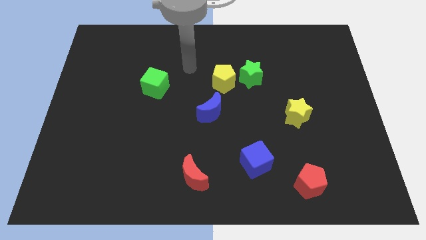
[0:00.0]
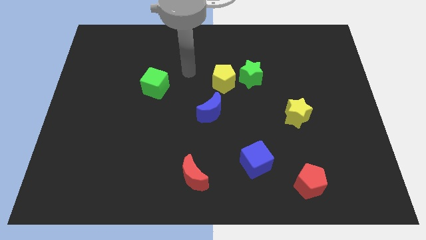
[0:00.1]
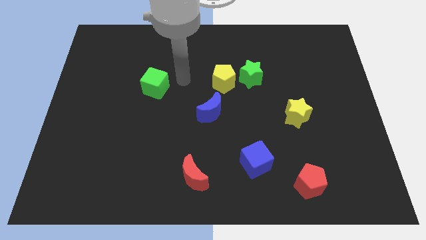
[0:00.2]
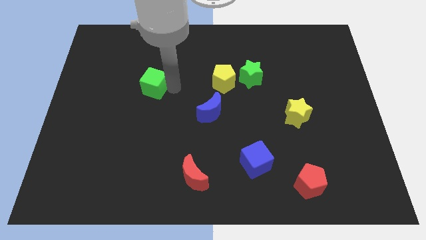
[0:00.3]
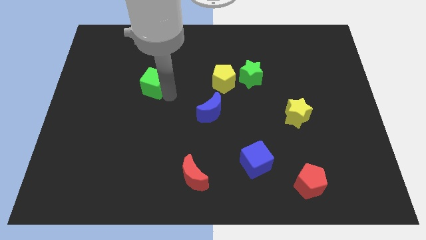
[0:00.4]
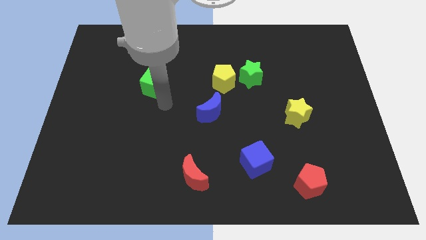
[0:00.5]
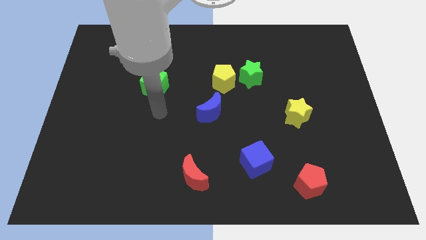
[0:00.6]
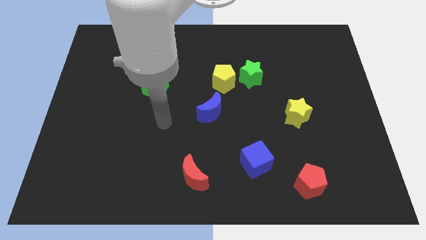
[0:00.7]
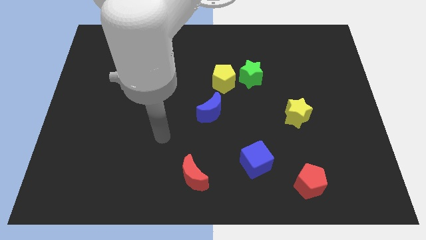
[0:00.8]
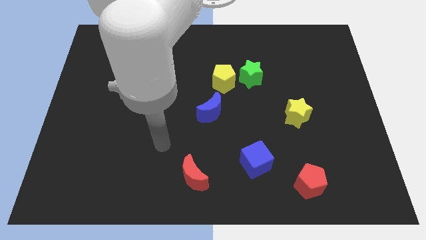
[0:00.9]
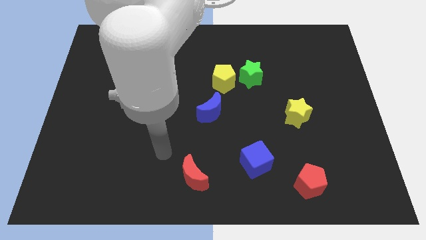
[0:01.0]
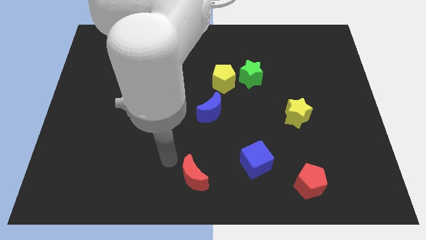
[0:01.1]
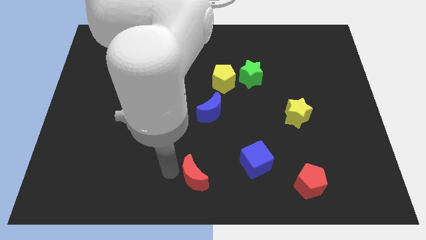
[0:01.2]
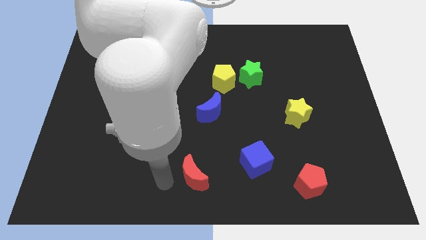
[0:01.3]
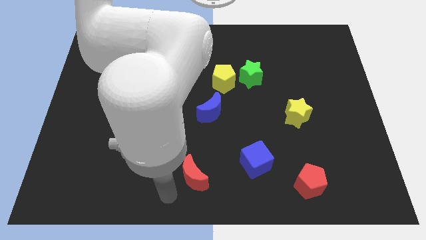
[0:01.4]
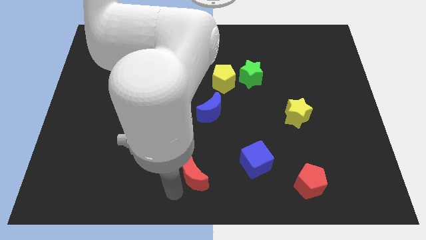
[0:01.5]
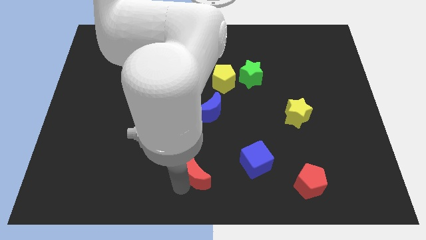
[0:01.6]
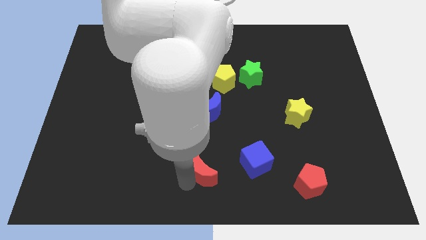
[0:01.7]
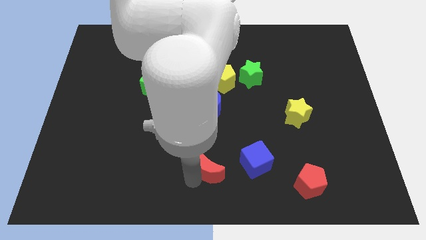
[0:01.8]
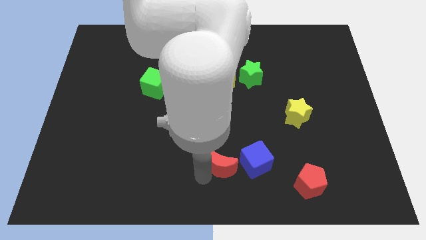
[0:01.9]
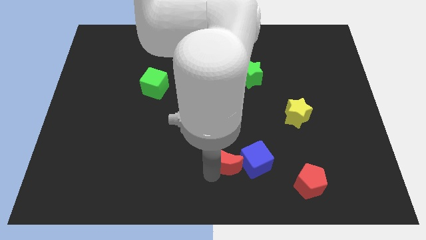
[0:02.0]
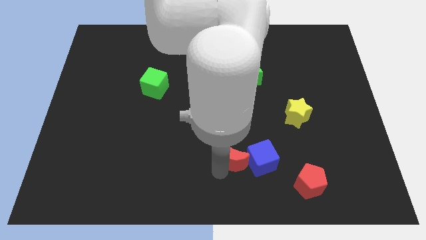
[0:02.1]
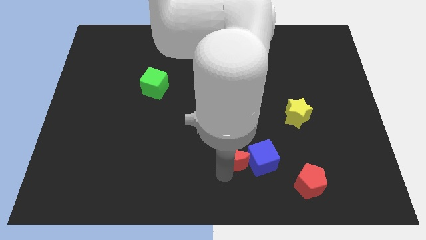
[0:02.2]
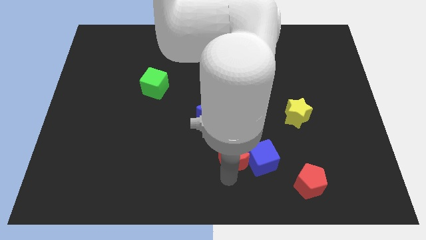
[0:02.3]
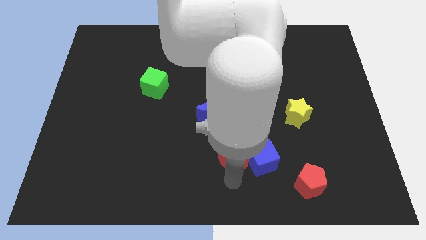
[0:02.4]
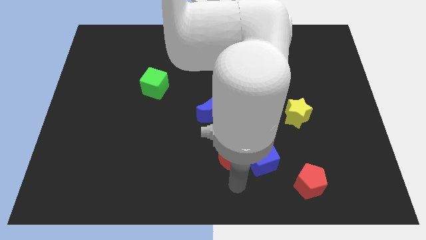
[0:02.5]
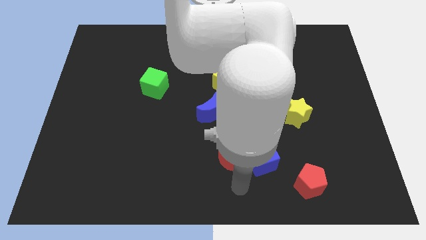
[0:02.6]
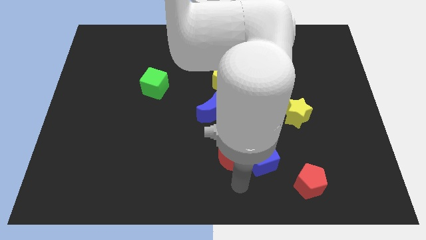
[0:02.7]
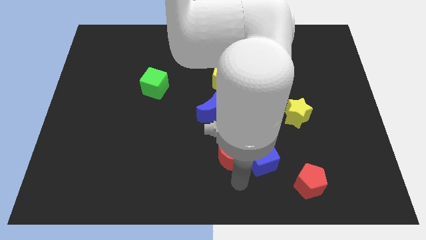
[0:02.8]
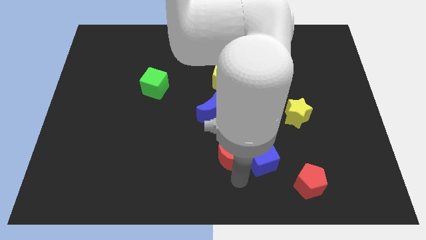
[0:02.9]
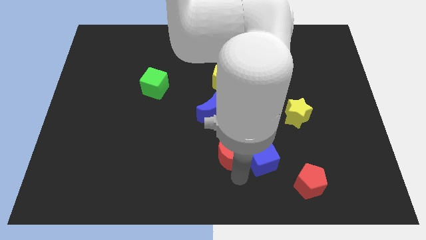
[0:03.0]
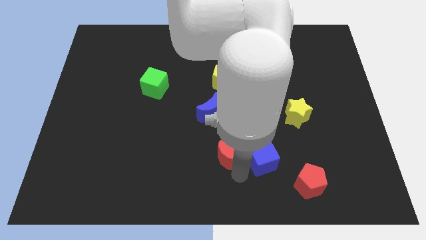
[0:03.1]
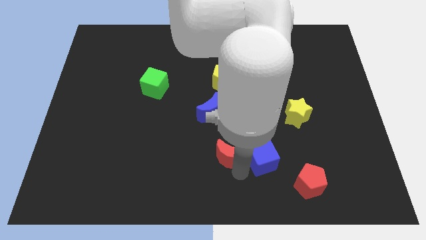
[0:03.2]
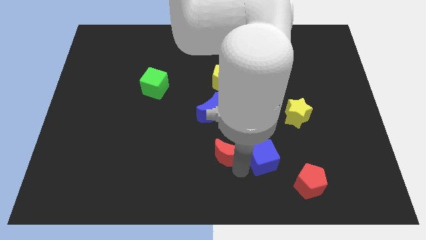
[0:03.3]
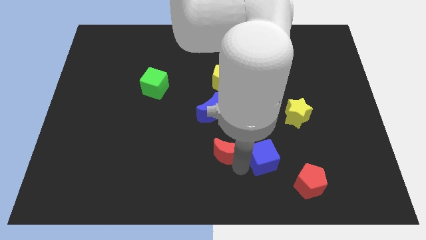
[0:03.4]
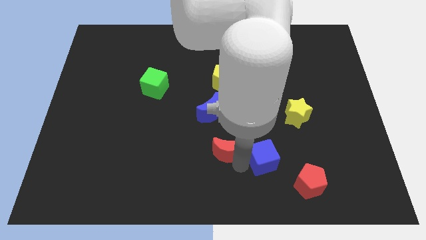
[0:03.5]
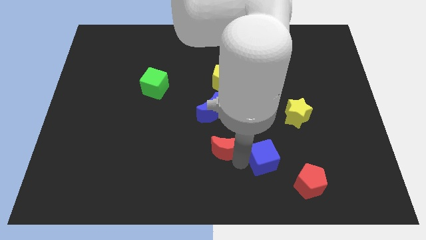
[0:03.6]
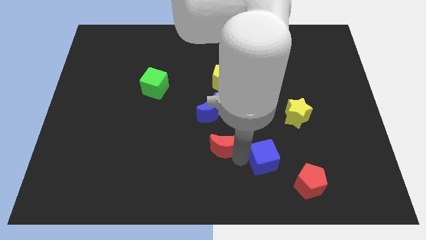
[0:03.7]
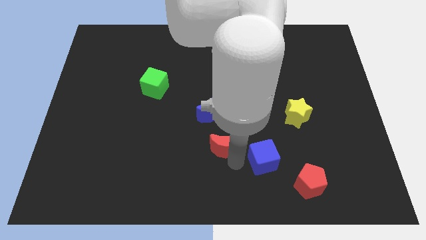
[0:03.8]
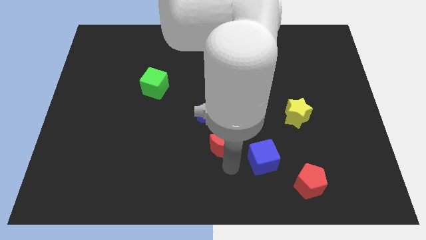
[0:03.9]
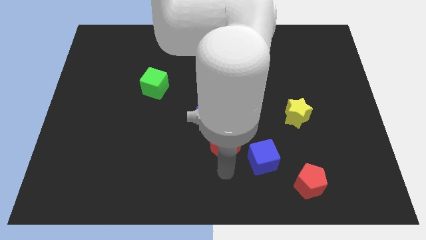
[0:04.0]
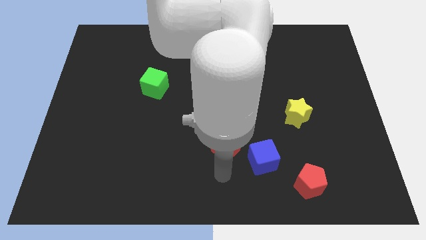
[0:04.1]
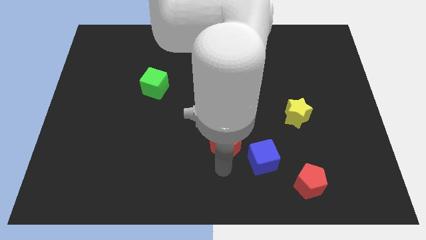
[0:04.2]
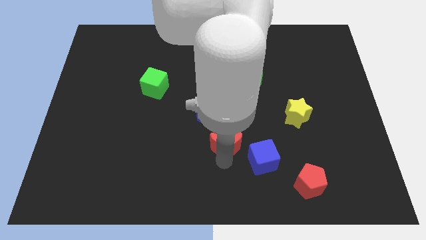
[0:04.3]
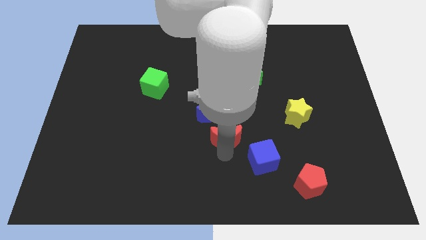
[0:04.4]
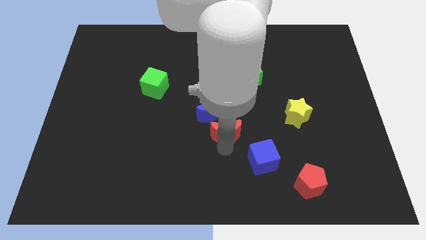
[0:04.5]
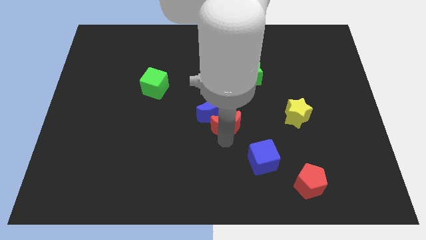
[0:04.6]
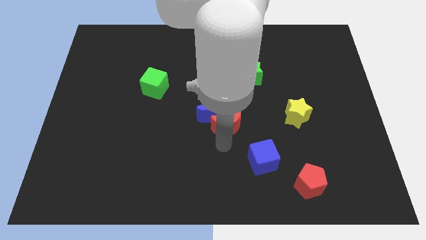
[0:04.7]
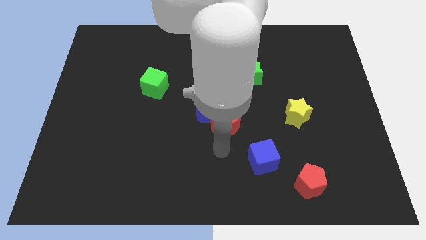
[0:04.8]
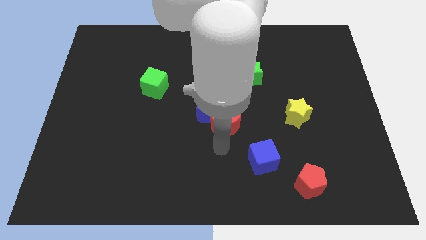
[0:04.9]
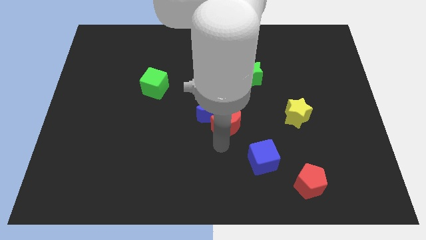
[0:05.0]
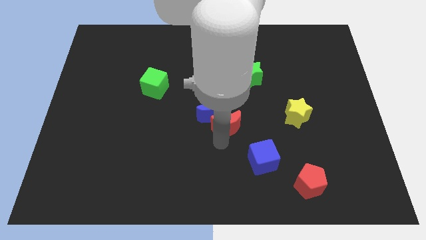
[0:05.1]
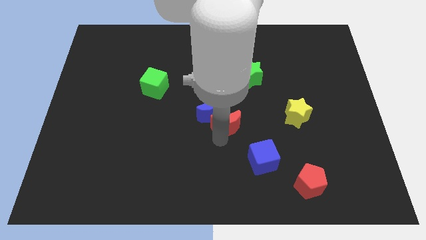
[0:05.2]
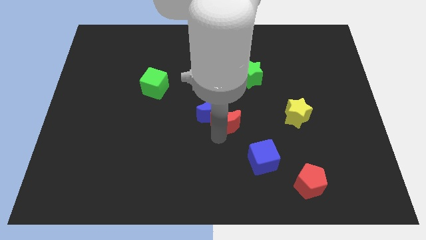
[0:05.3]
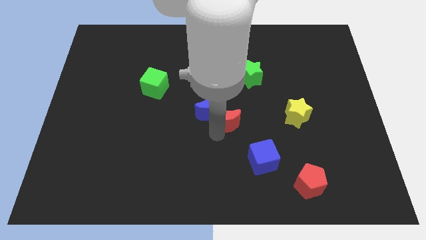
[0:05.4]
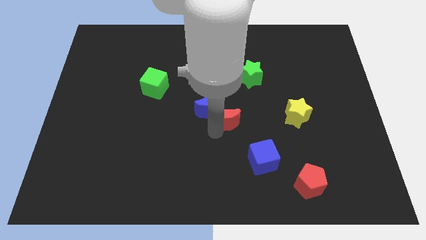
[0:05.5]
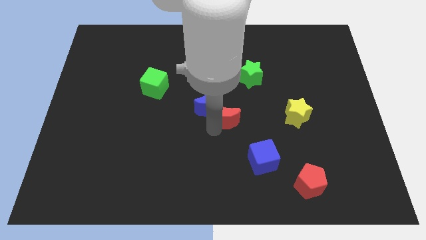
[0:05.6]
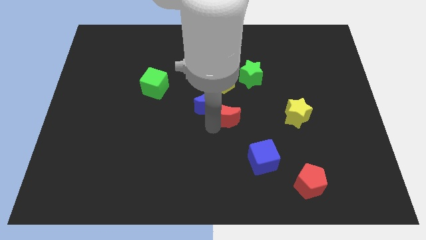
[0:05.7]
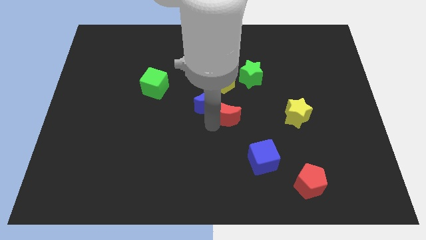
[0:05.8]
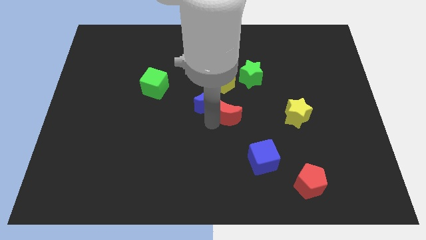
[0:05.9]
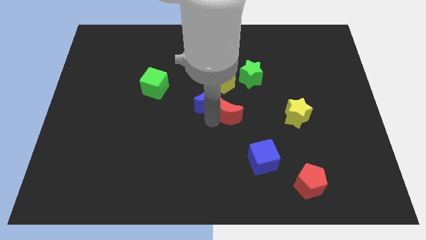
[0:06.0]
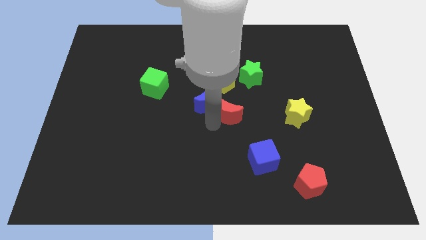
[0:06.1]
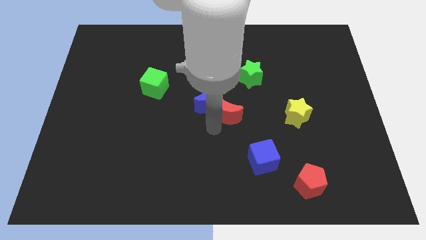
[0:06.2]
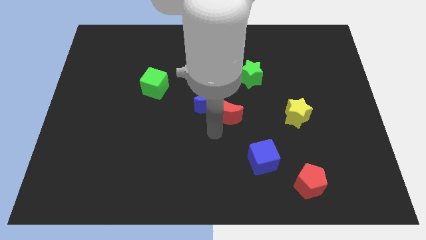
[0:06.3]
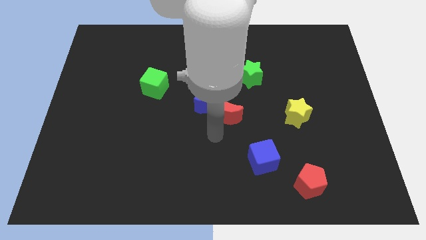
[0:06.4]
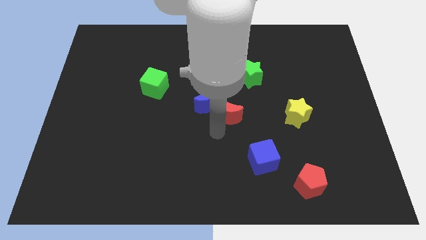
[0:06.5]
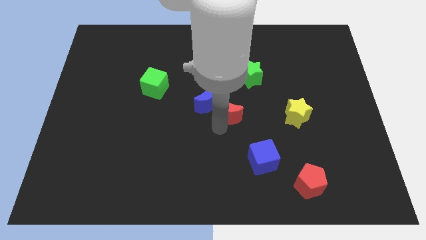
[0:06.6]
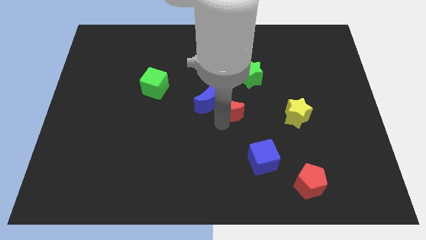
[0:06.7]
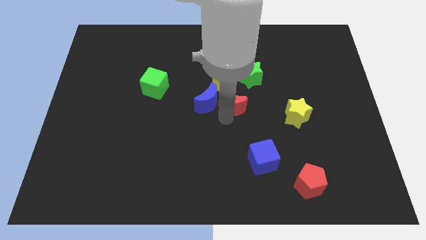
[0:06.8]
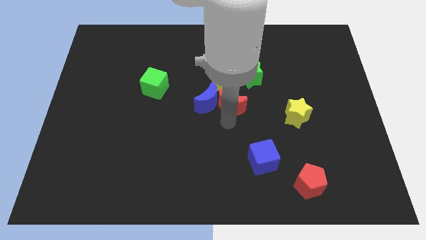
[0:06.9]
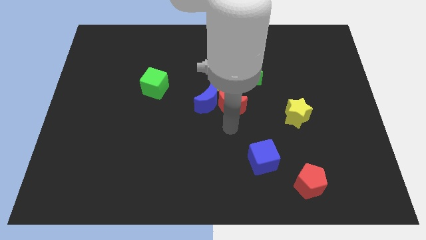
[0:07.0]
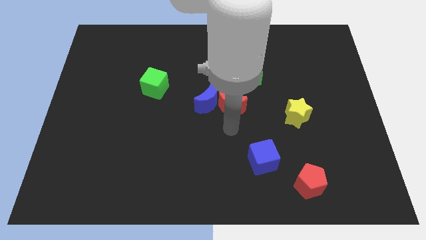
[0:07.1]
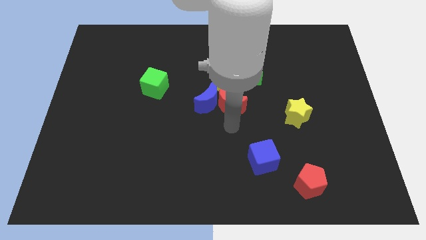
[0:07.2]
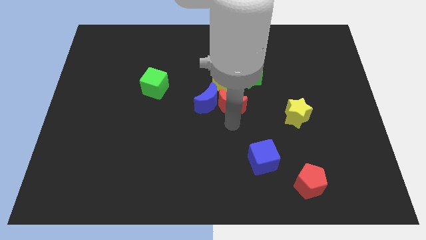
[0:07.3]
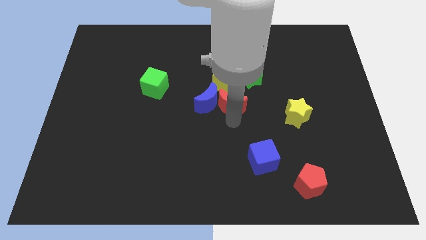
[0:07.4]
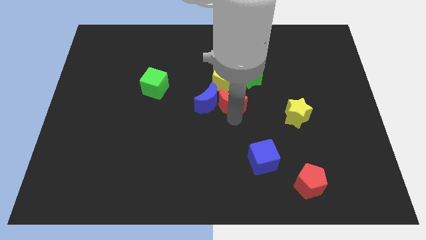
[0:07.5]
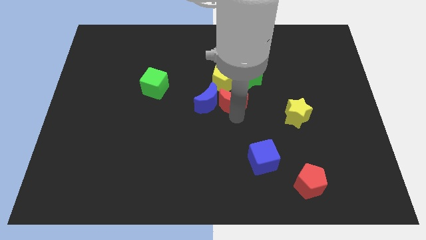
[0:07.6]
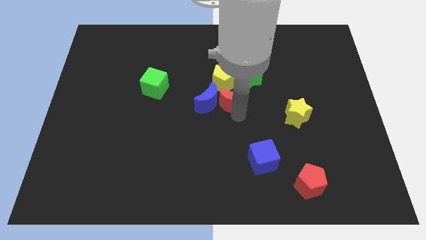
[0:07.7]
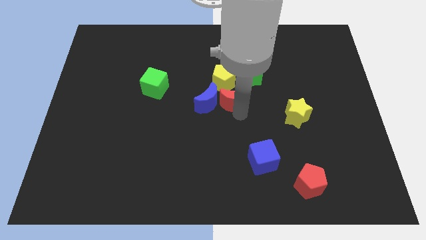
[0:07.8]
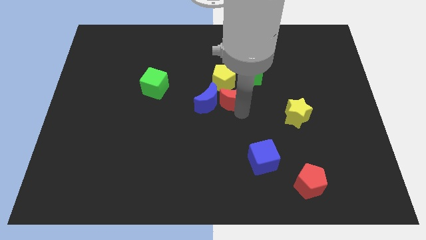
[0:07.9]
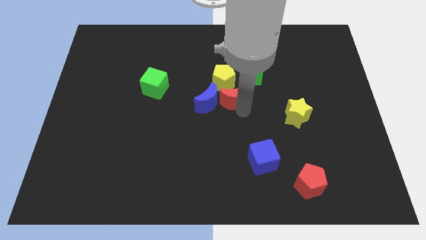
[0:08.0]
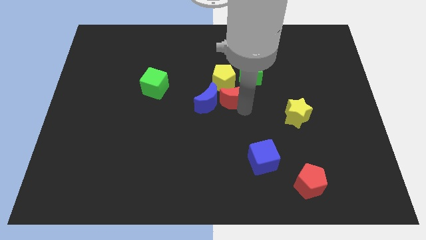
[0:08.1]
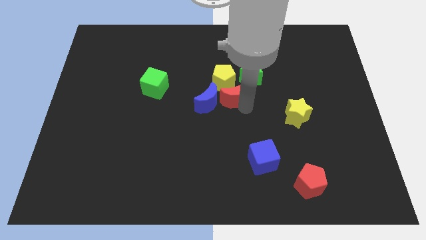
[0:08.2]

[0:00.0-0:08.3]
slide the red moon close to the yellow pentagon
